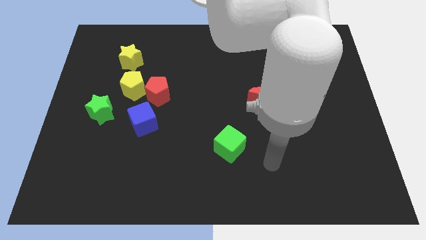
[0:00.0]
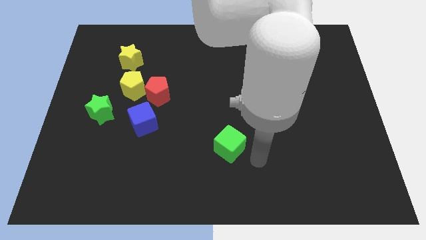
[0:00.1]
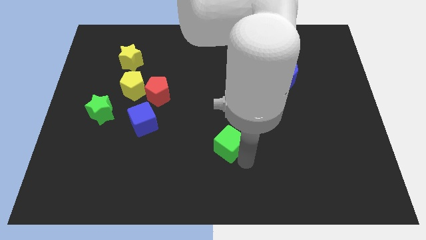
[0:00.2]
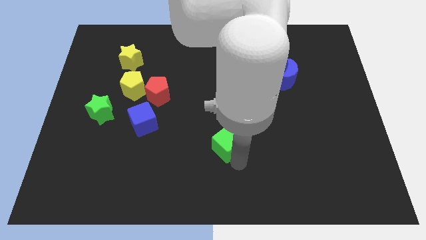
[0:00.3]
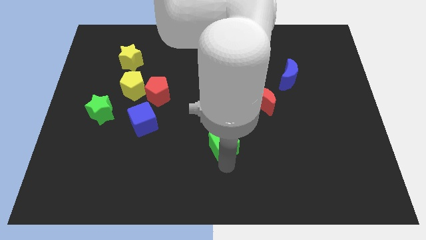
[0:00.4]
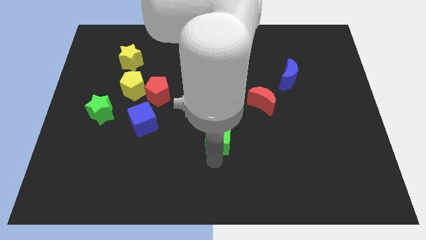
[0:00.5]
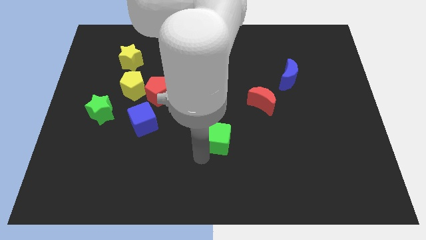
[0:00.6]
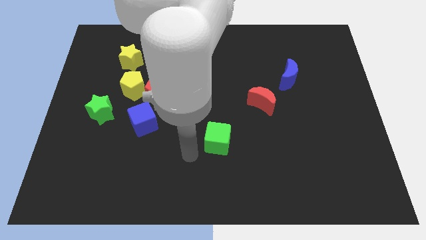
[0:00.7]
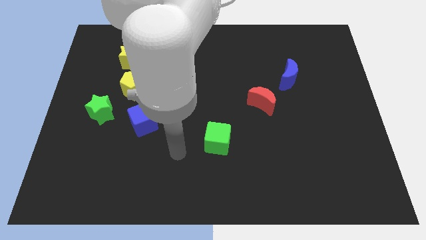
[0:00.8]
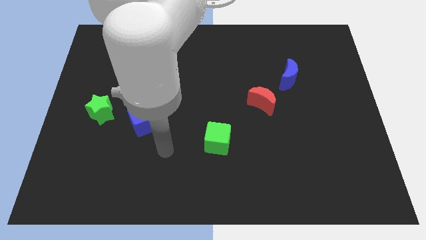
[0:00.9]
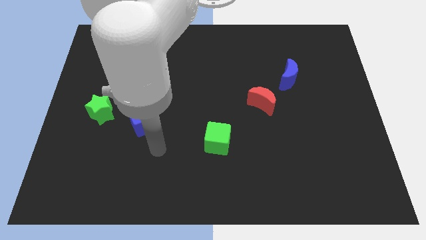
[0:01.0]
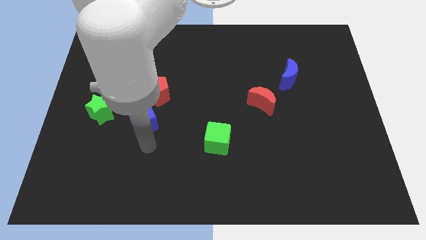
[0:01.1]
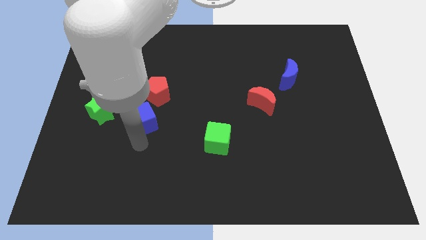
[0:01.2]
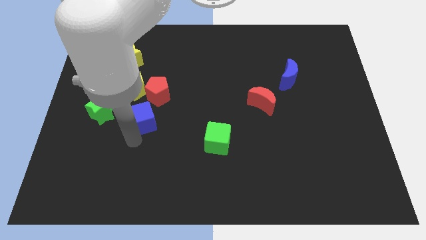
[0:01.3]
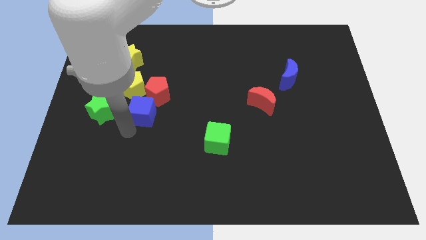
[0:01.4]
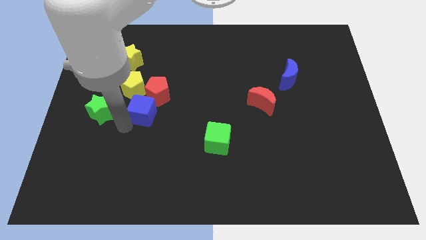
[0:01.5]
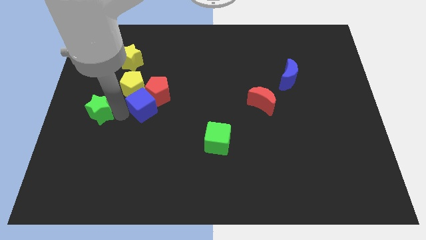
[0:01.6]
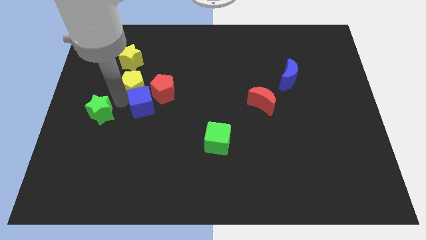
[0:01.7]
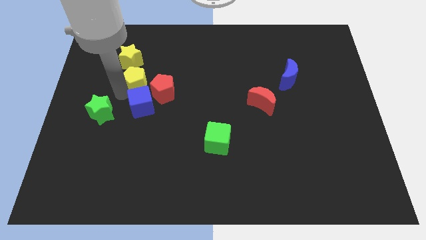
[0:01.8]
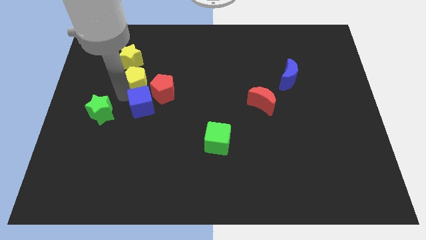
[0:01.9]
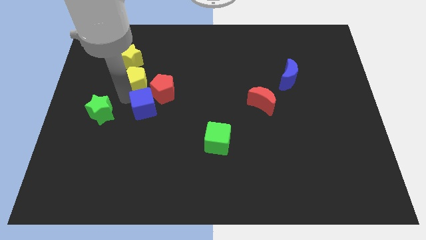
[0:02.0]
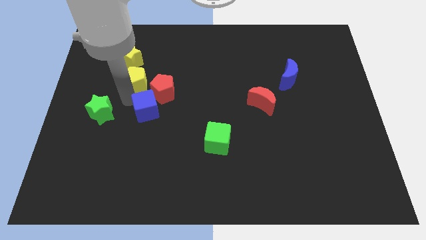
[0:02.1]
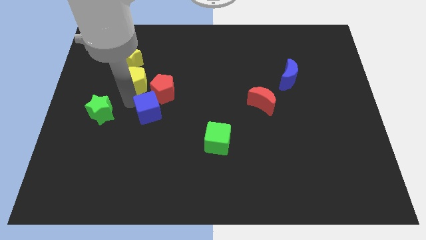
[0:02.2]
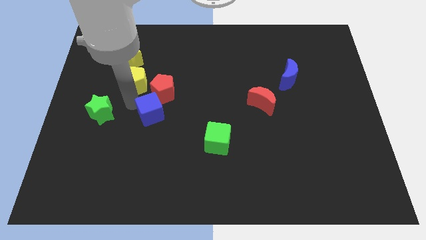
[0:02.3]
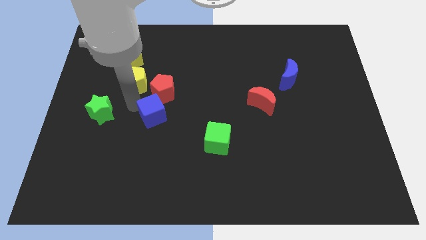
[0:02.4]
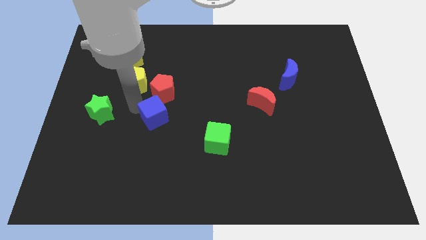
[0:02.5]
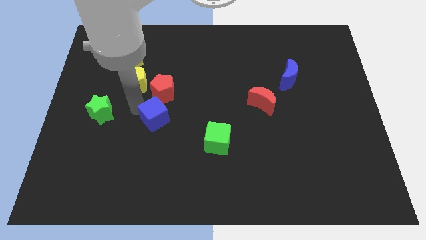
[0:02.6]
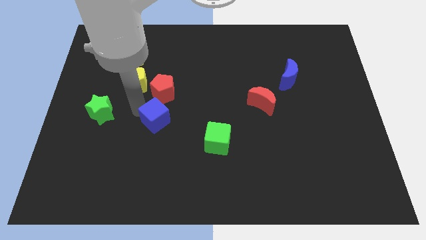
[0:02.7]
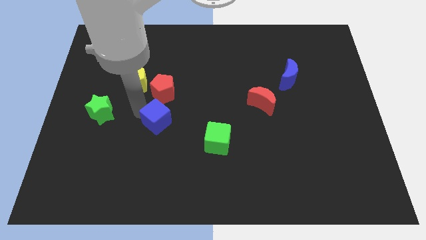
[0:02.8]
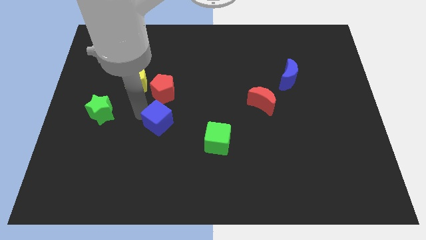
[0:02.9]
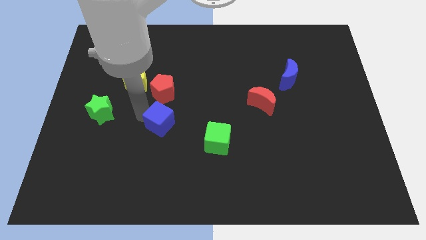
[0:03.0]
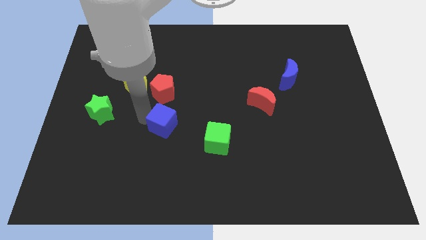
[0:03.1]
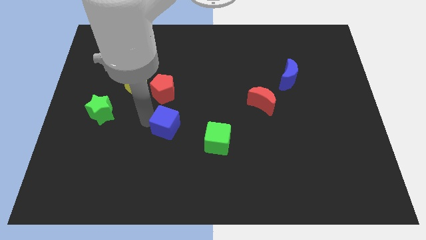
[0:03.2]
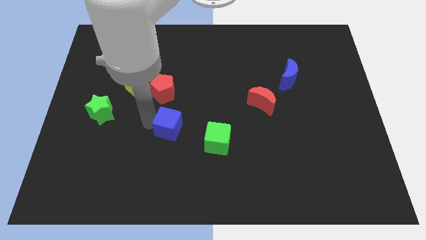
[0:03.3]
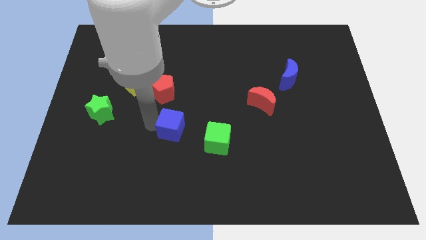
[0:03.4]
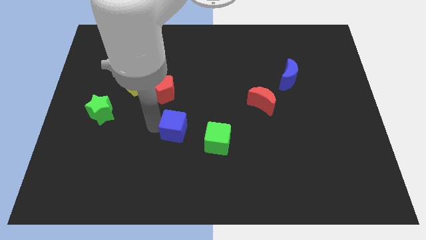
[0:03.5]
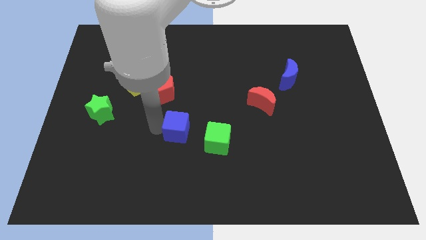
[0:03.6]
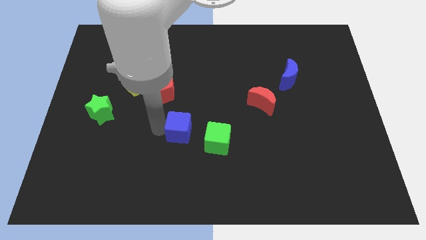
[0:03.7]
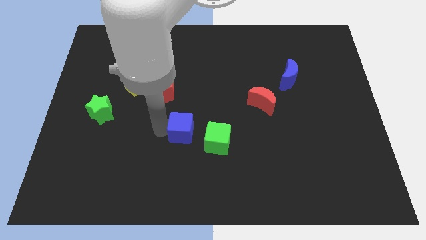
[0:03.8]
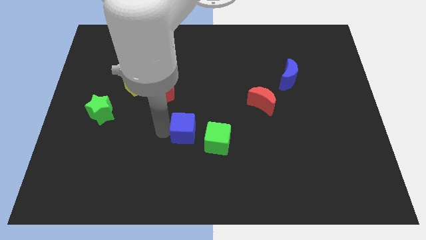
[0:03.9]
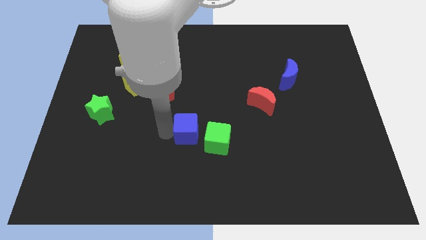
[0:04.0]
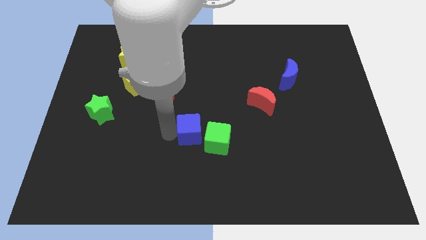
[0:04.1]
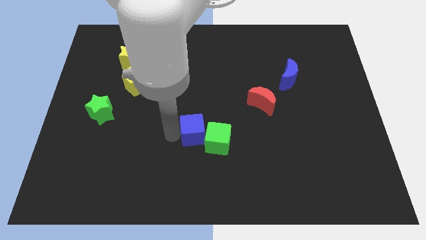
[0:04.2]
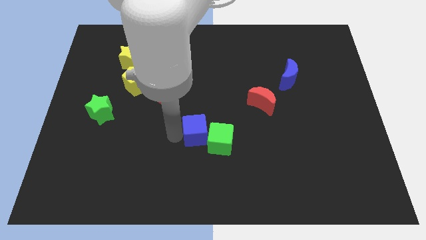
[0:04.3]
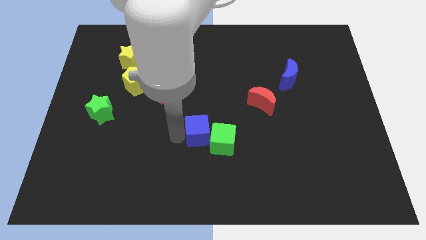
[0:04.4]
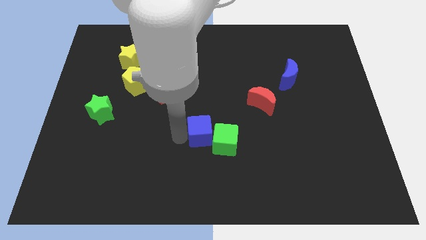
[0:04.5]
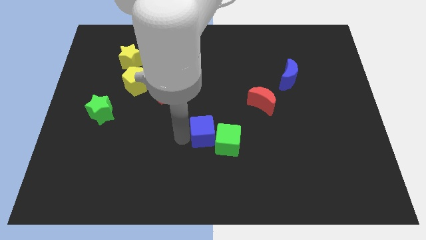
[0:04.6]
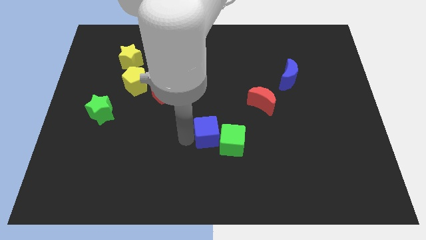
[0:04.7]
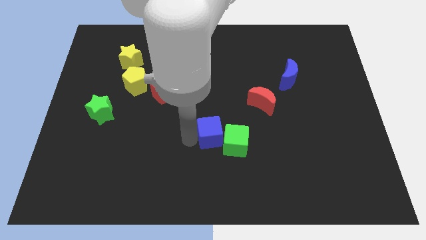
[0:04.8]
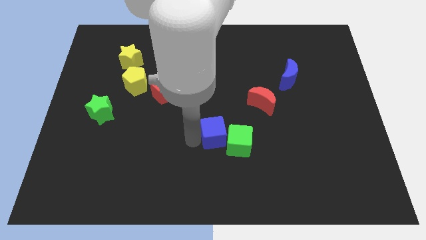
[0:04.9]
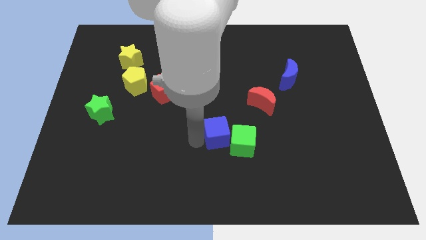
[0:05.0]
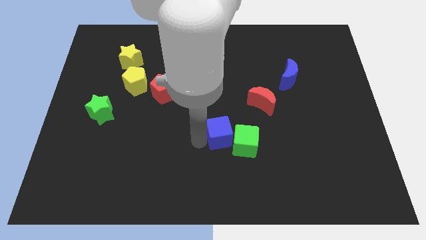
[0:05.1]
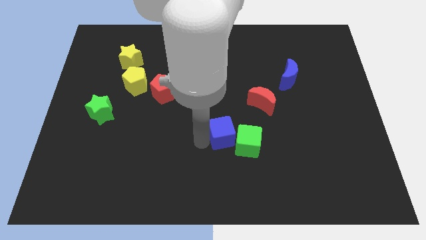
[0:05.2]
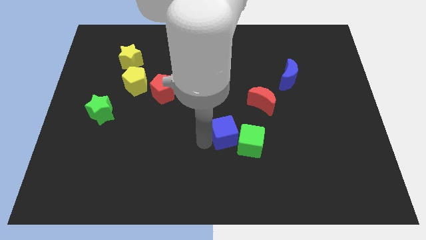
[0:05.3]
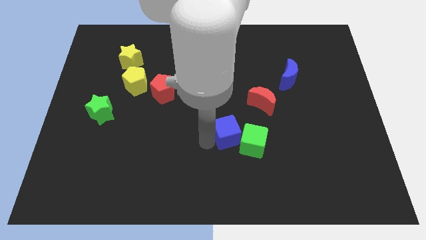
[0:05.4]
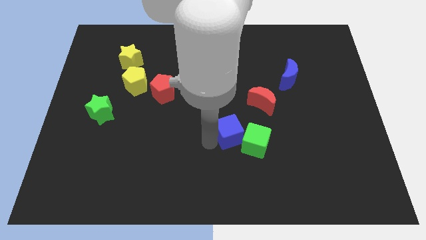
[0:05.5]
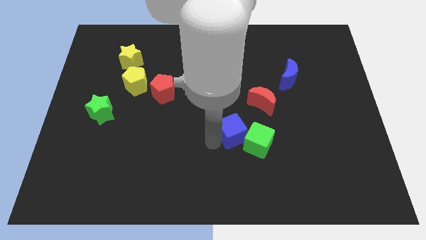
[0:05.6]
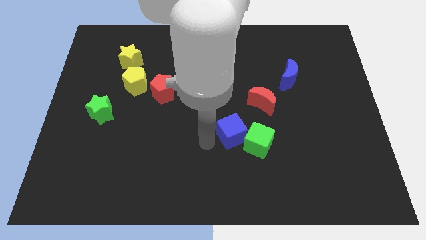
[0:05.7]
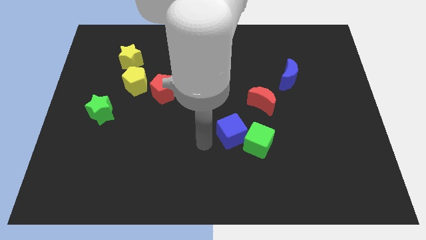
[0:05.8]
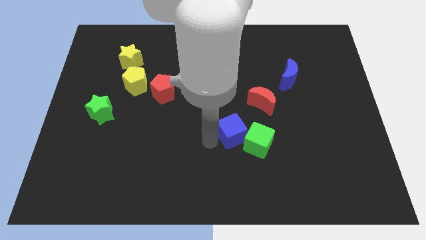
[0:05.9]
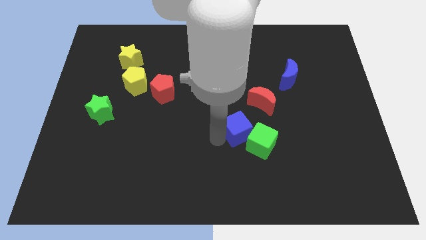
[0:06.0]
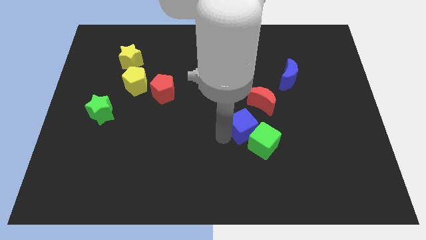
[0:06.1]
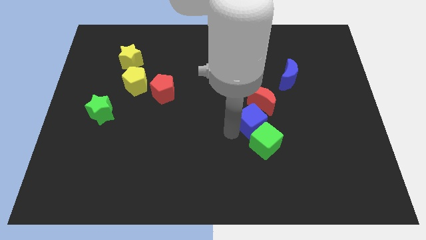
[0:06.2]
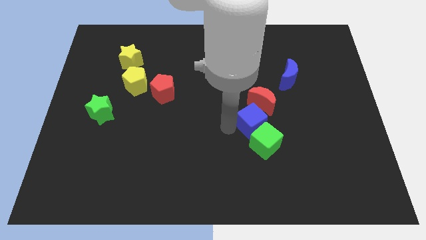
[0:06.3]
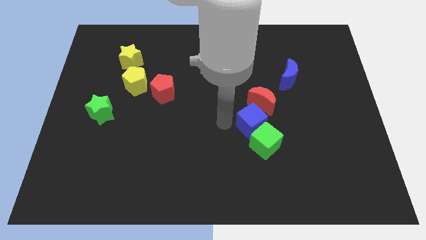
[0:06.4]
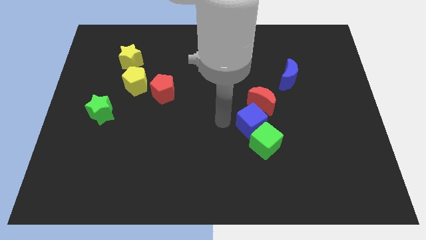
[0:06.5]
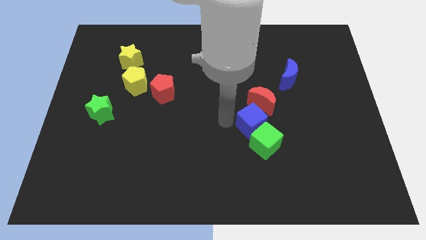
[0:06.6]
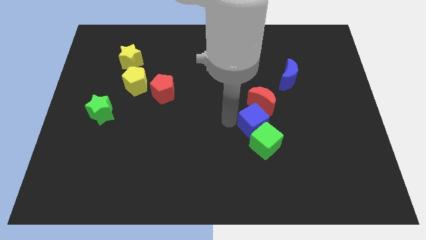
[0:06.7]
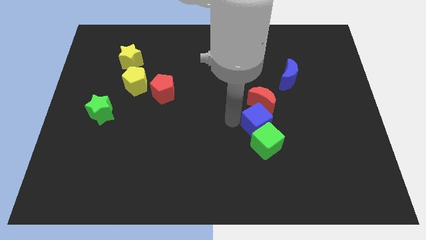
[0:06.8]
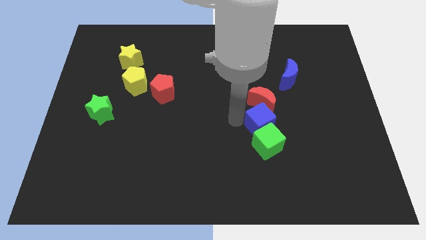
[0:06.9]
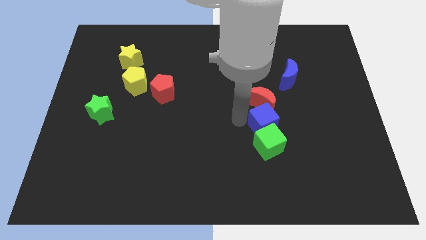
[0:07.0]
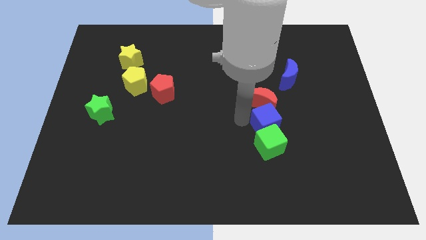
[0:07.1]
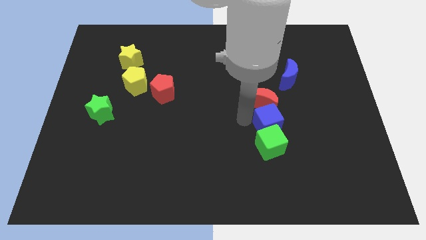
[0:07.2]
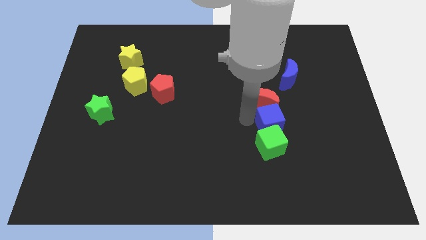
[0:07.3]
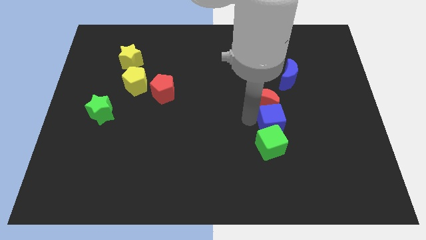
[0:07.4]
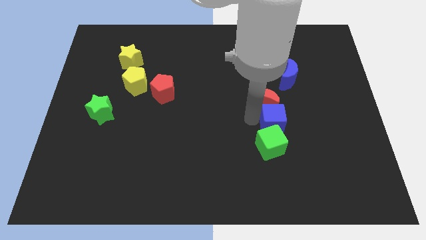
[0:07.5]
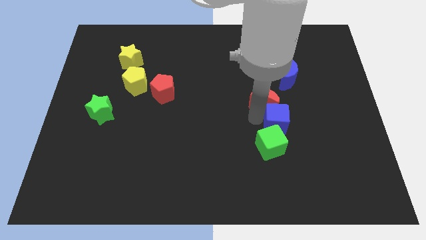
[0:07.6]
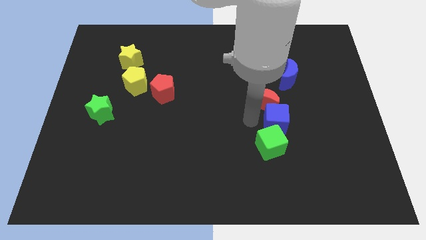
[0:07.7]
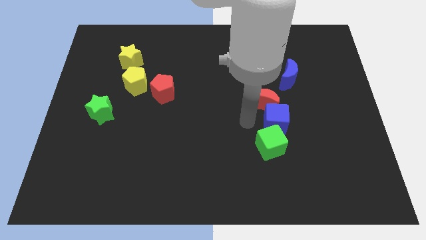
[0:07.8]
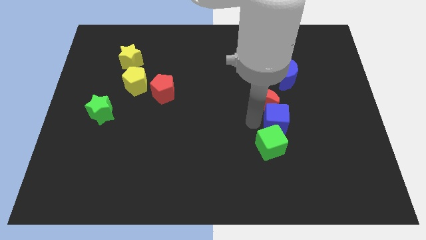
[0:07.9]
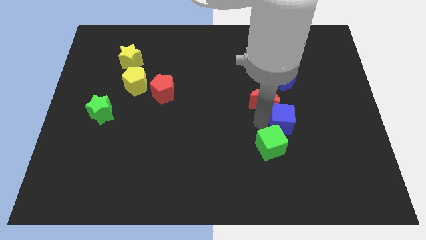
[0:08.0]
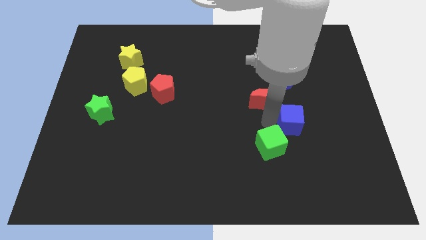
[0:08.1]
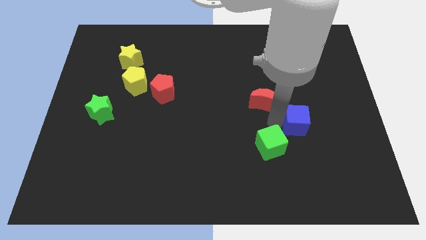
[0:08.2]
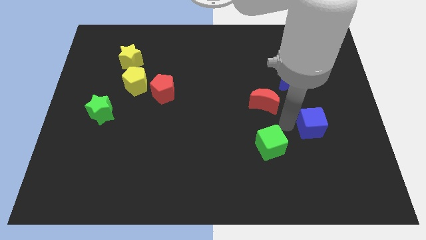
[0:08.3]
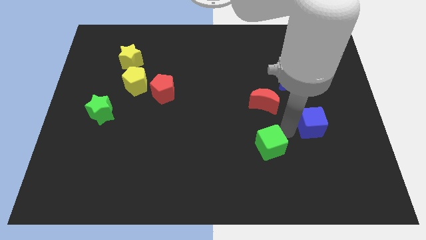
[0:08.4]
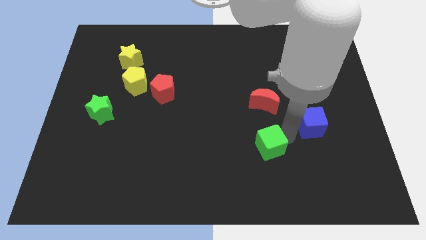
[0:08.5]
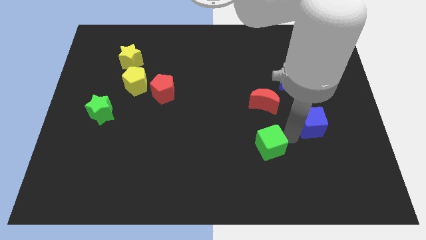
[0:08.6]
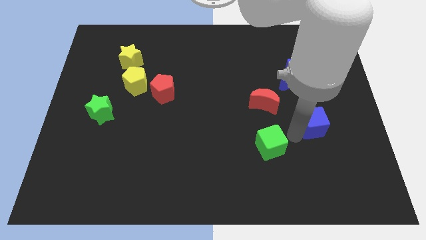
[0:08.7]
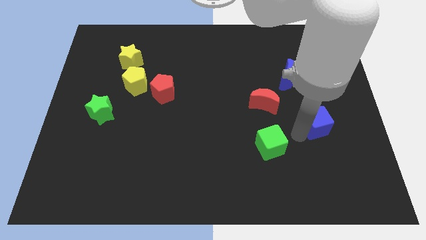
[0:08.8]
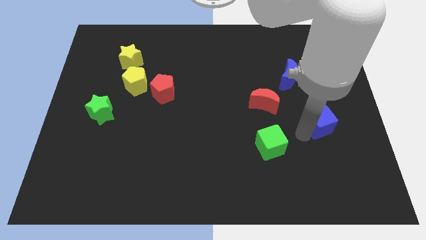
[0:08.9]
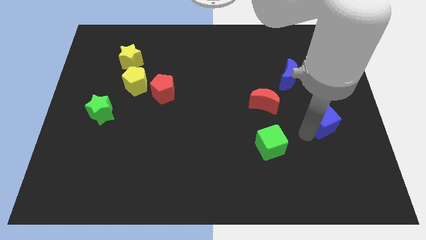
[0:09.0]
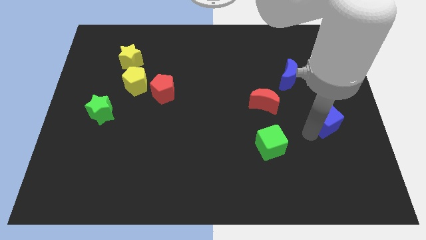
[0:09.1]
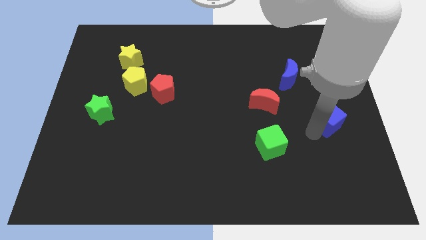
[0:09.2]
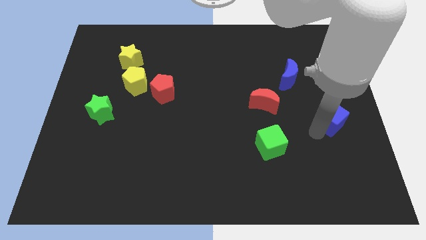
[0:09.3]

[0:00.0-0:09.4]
push the blue cube to the right side
